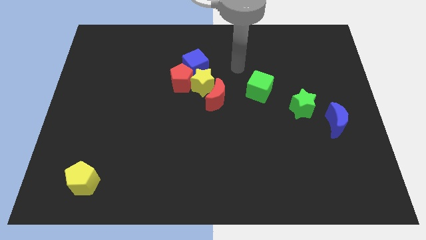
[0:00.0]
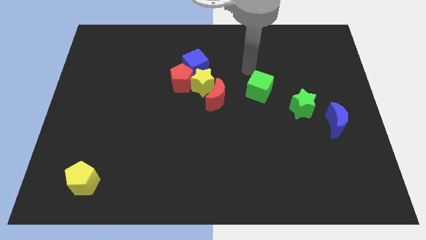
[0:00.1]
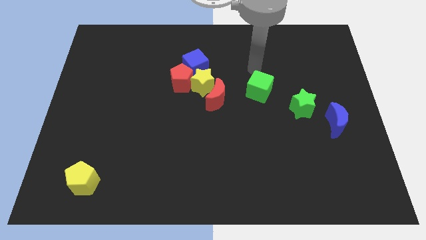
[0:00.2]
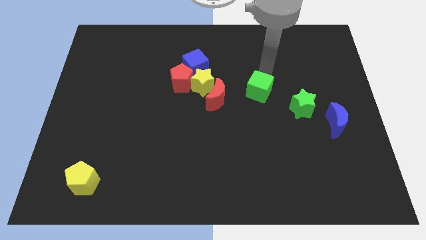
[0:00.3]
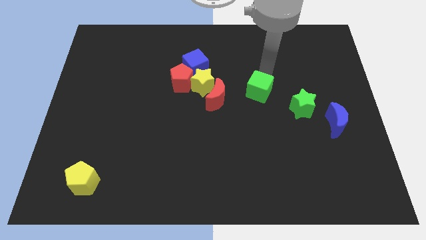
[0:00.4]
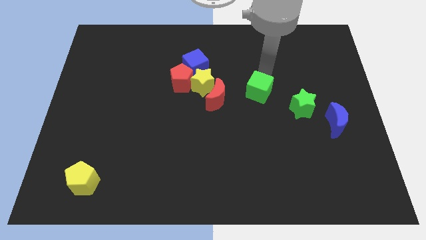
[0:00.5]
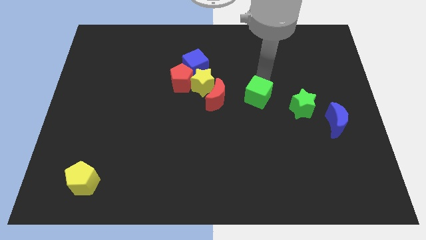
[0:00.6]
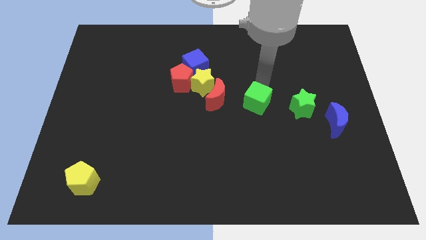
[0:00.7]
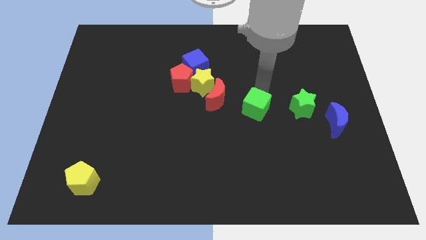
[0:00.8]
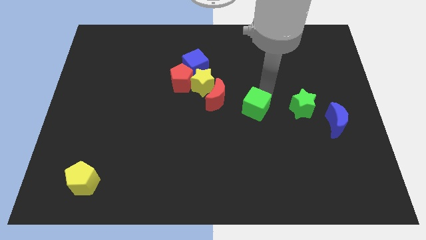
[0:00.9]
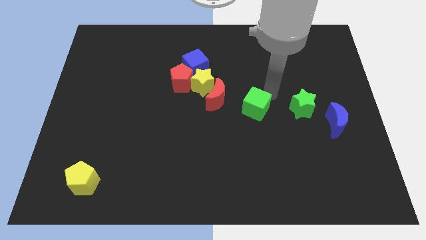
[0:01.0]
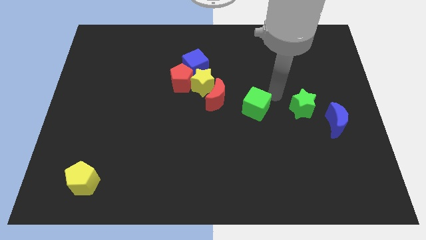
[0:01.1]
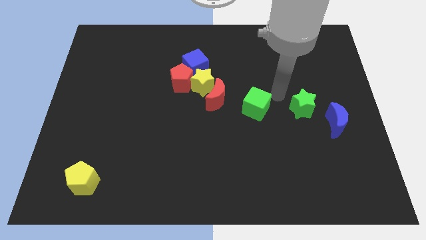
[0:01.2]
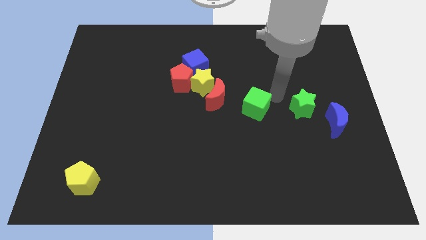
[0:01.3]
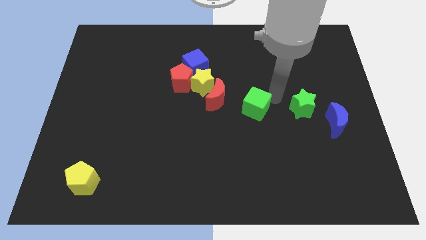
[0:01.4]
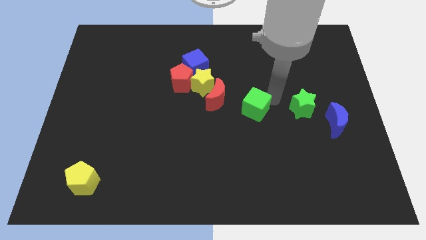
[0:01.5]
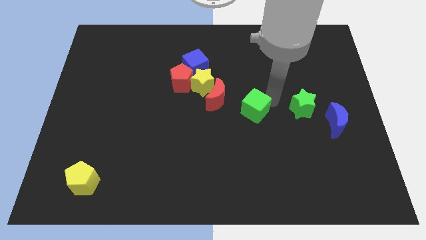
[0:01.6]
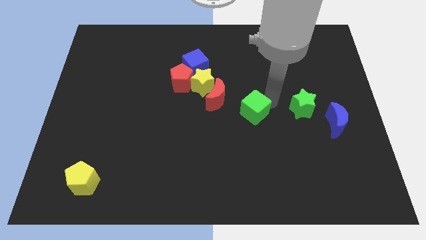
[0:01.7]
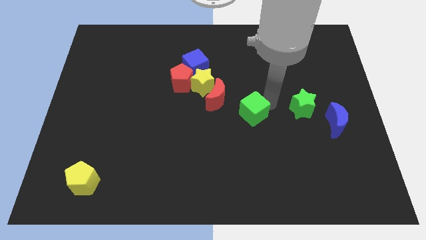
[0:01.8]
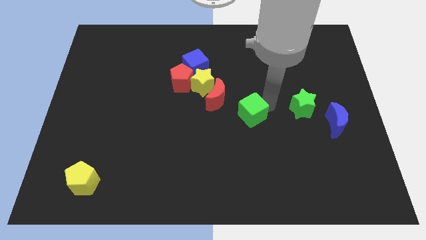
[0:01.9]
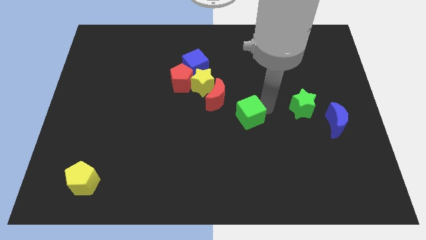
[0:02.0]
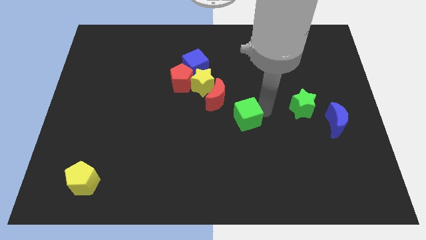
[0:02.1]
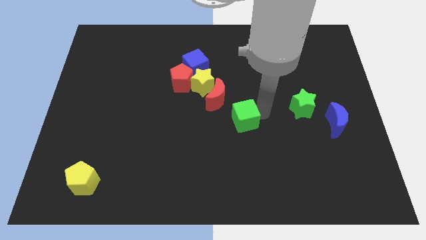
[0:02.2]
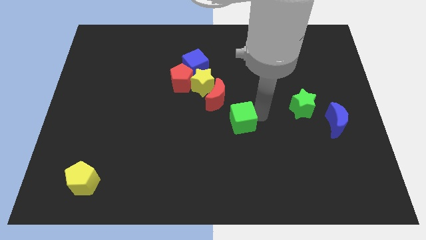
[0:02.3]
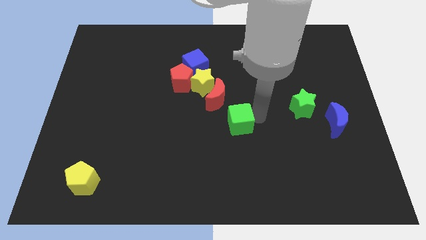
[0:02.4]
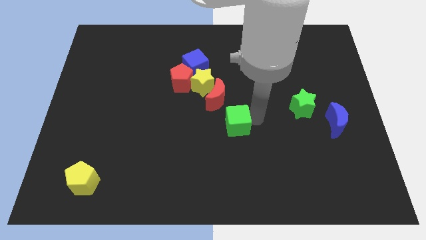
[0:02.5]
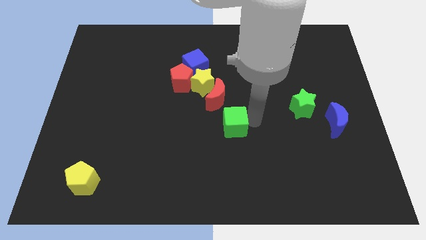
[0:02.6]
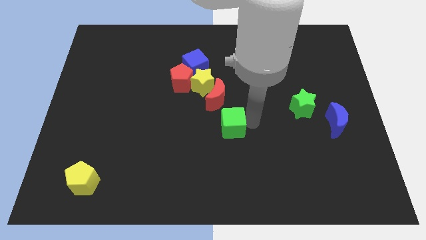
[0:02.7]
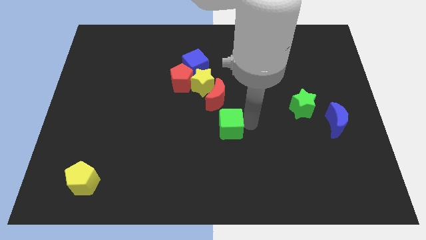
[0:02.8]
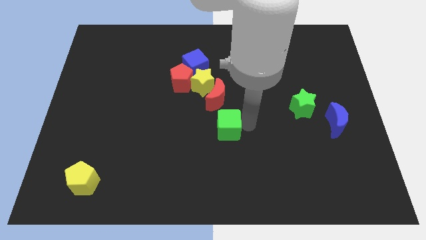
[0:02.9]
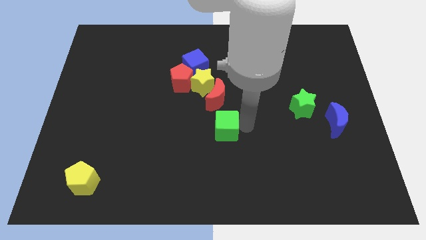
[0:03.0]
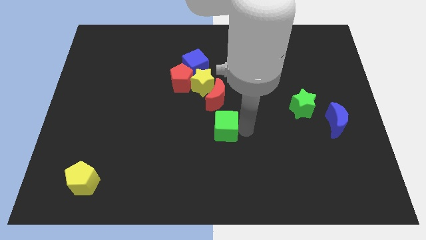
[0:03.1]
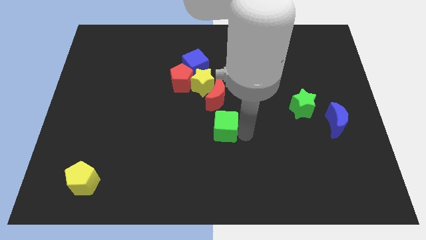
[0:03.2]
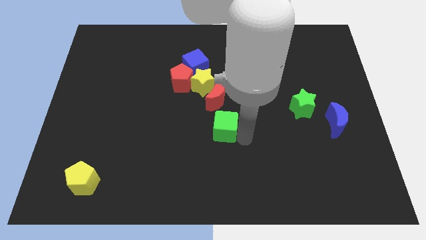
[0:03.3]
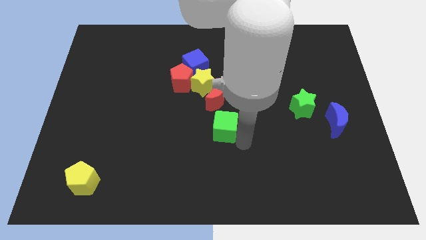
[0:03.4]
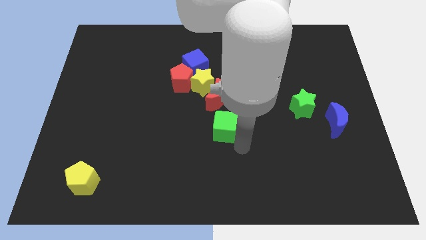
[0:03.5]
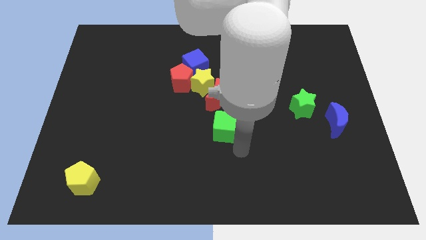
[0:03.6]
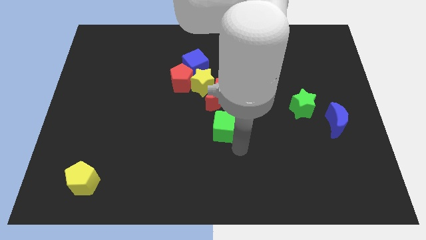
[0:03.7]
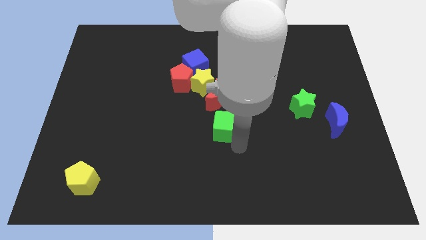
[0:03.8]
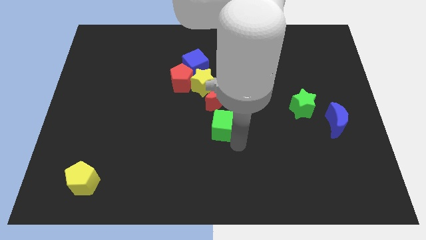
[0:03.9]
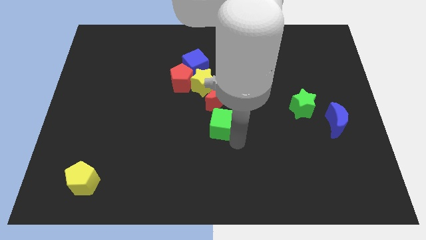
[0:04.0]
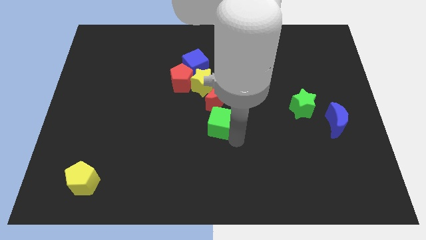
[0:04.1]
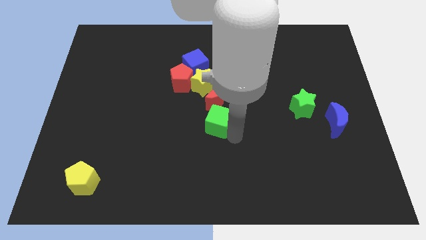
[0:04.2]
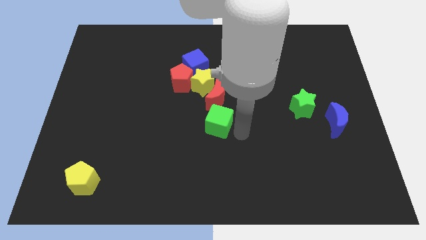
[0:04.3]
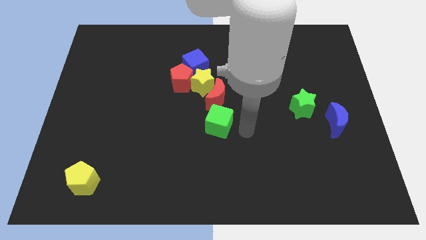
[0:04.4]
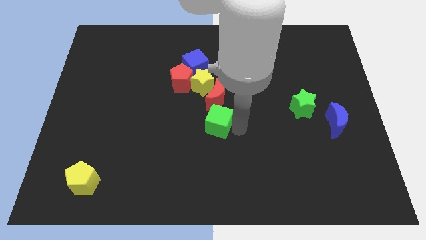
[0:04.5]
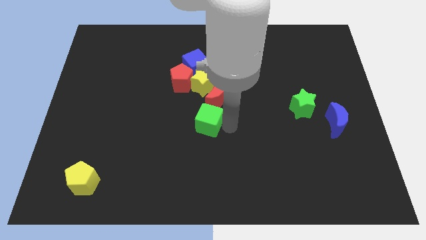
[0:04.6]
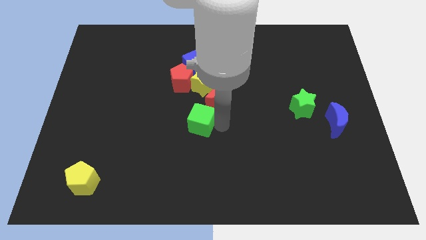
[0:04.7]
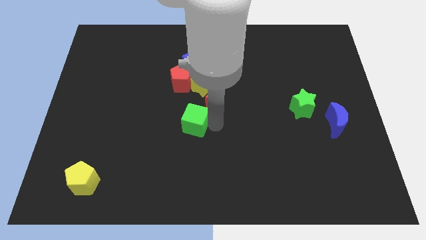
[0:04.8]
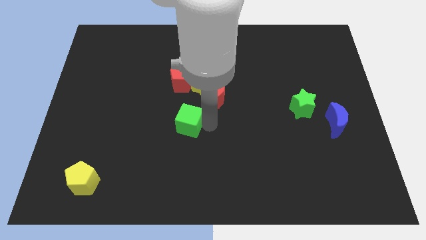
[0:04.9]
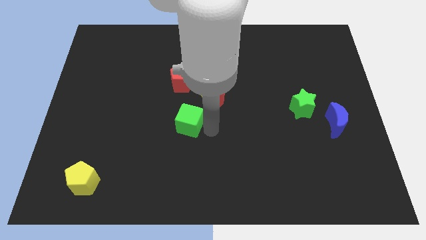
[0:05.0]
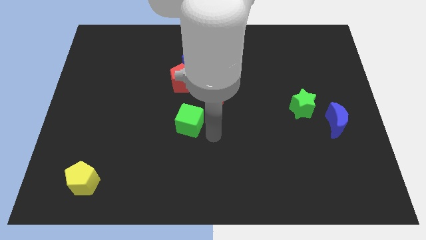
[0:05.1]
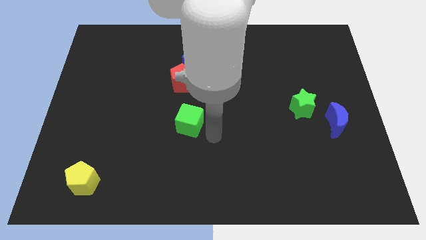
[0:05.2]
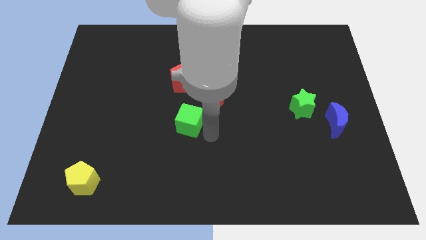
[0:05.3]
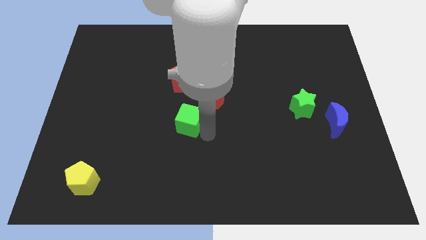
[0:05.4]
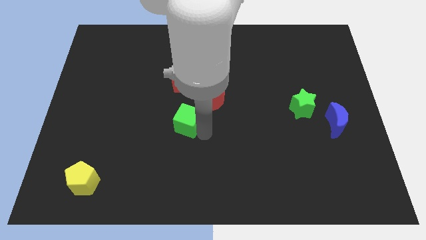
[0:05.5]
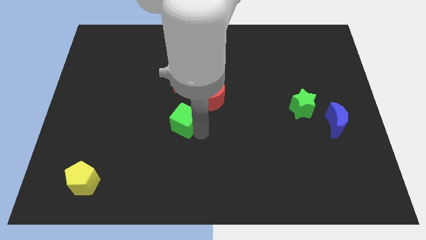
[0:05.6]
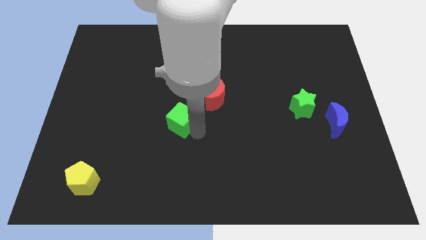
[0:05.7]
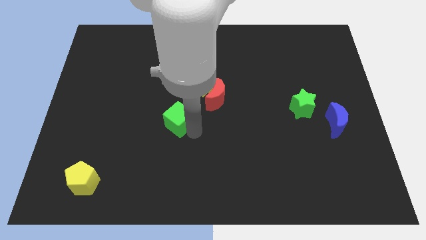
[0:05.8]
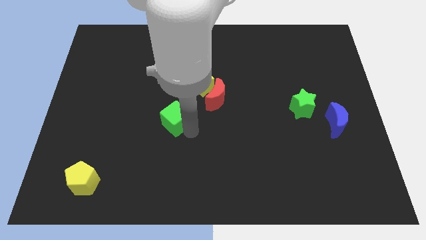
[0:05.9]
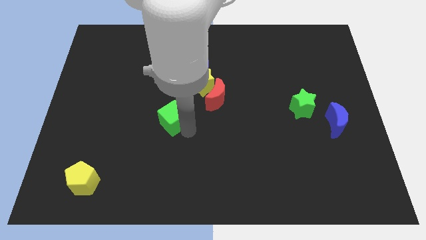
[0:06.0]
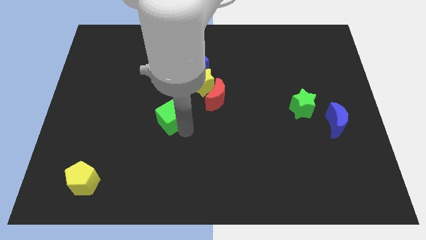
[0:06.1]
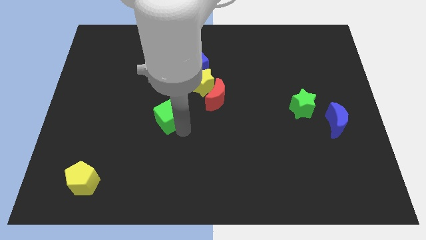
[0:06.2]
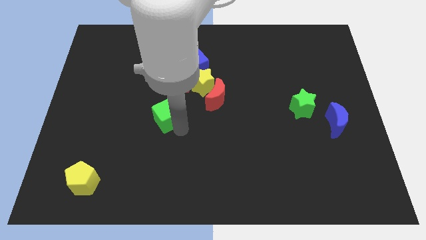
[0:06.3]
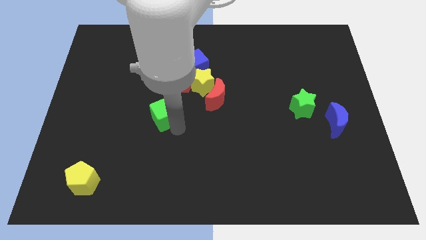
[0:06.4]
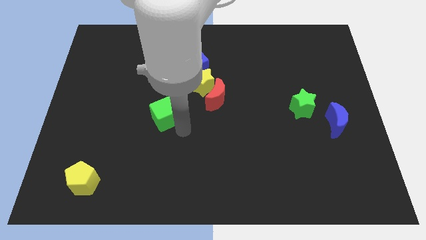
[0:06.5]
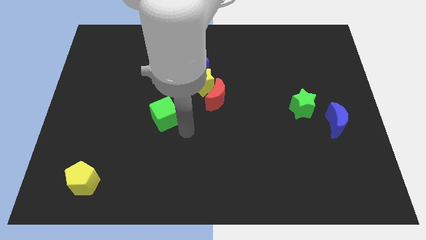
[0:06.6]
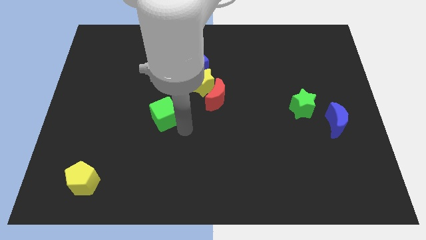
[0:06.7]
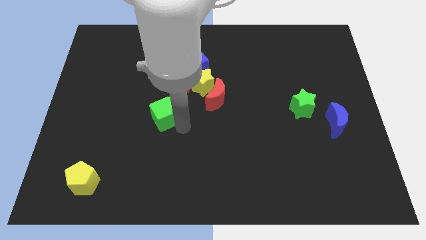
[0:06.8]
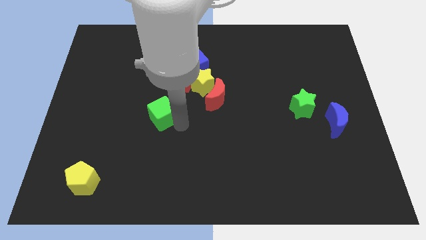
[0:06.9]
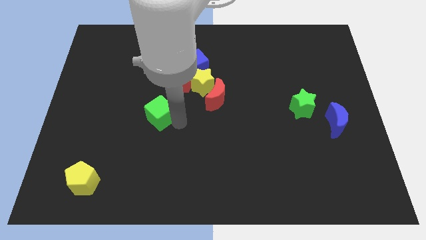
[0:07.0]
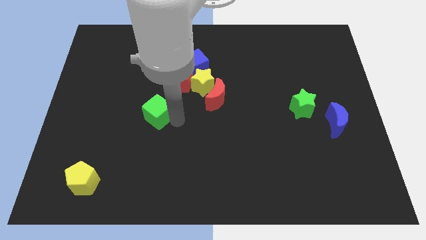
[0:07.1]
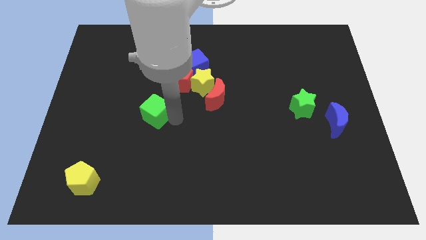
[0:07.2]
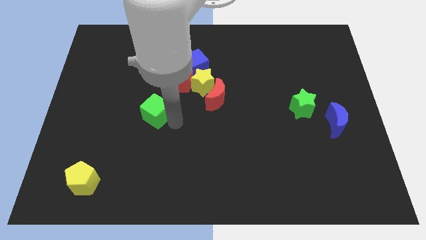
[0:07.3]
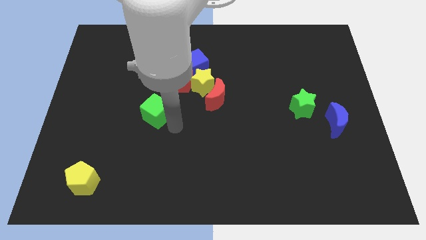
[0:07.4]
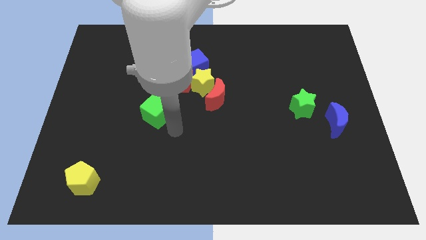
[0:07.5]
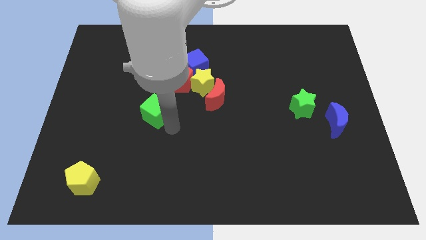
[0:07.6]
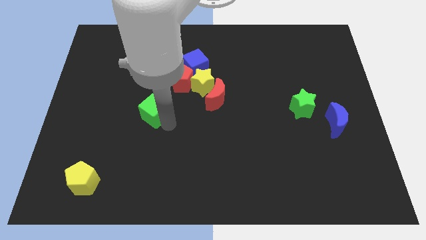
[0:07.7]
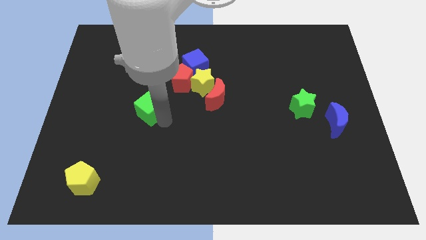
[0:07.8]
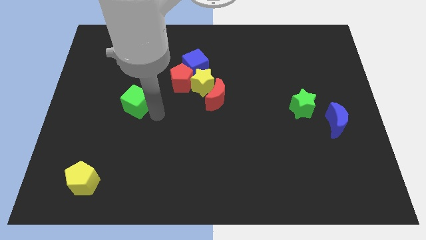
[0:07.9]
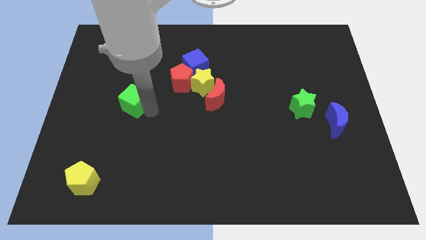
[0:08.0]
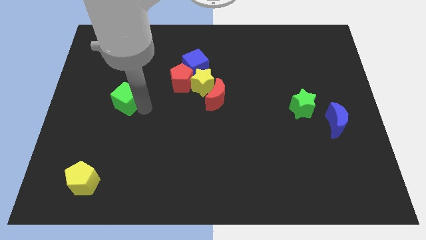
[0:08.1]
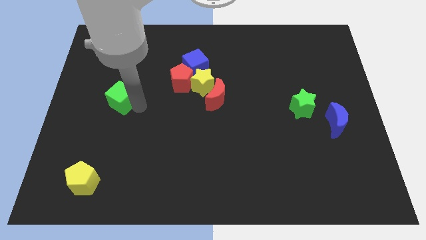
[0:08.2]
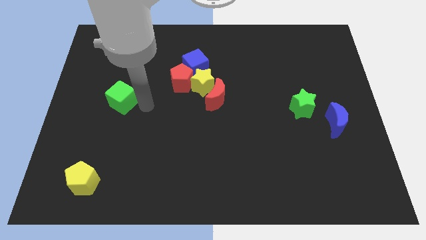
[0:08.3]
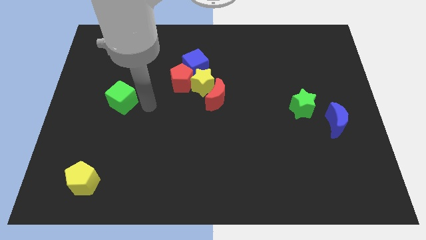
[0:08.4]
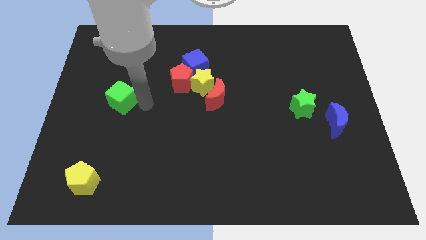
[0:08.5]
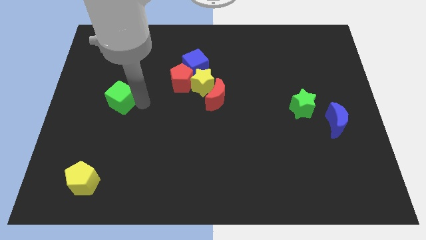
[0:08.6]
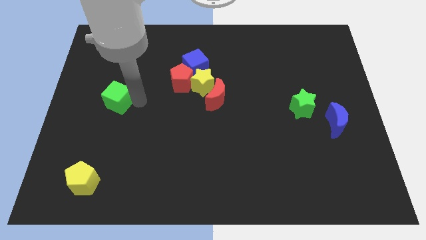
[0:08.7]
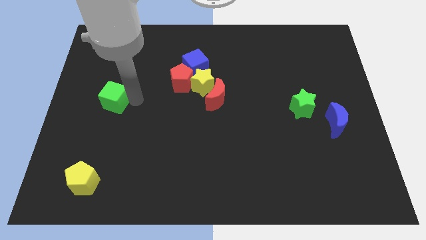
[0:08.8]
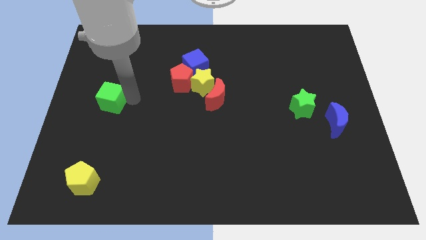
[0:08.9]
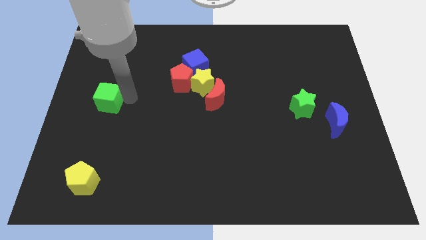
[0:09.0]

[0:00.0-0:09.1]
put the green cube to the left side
